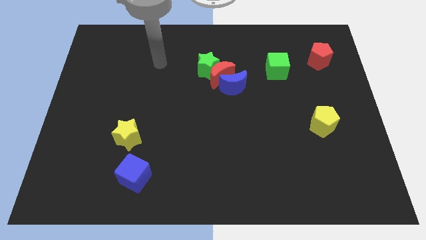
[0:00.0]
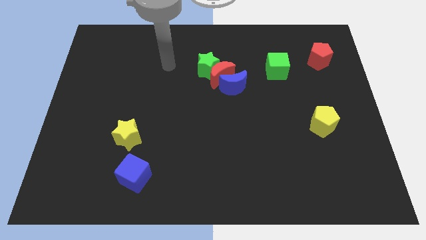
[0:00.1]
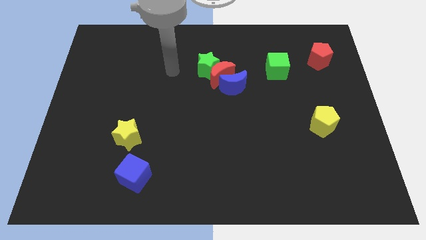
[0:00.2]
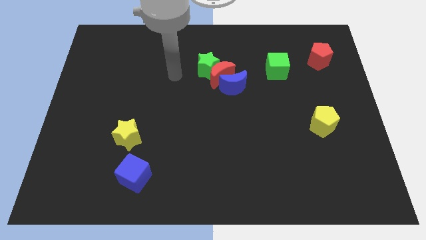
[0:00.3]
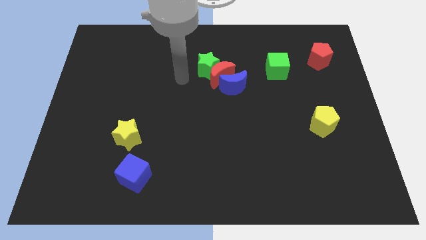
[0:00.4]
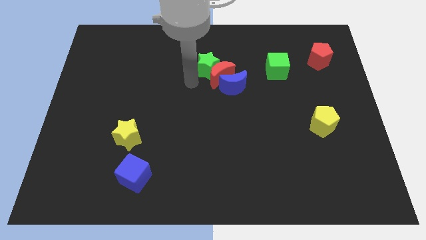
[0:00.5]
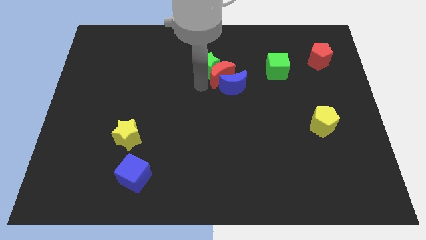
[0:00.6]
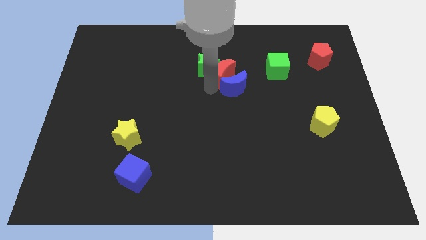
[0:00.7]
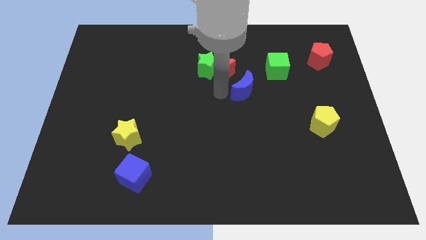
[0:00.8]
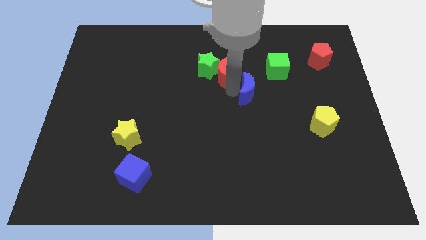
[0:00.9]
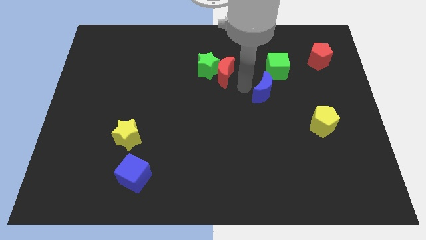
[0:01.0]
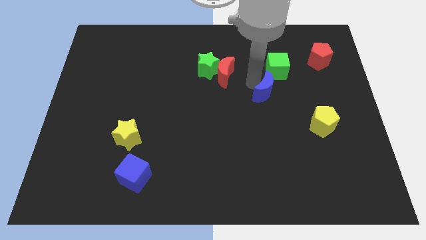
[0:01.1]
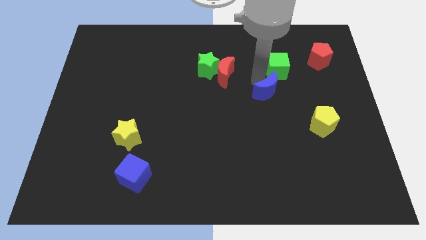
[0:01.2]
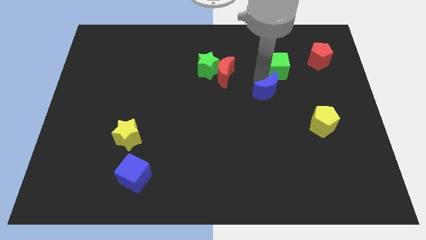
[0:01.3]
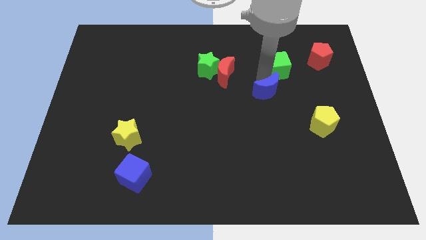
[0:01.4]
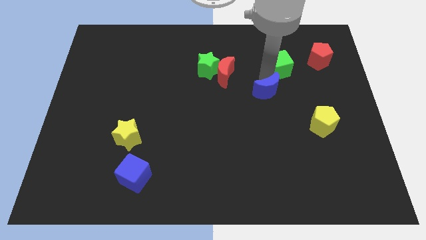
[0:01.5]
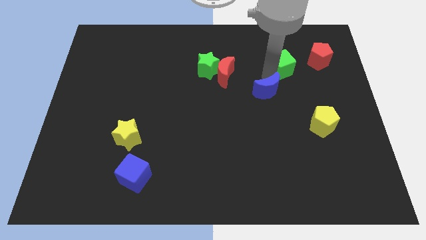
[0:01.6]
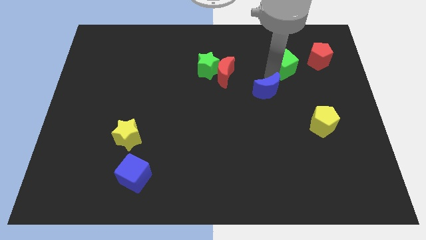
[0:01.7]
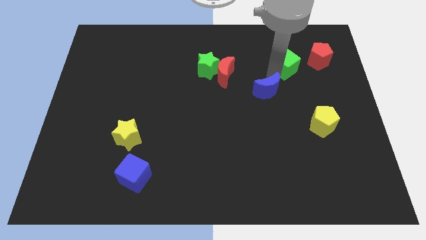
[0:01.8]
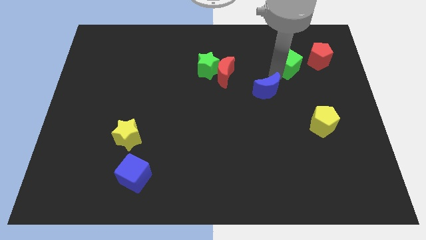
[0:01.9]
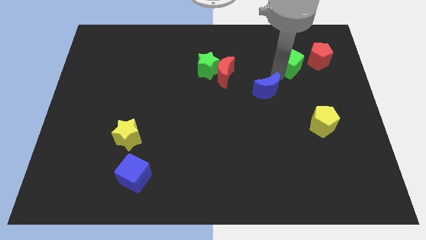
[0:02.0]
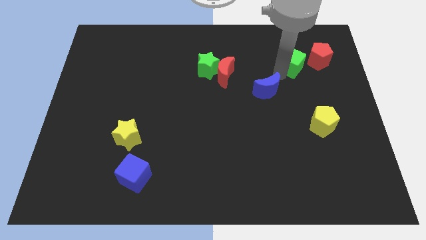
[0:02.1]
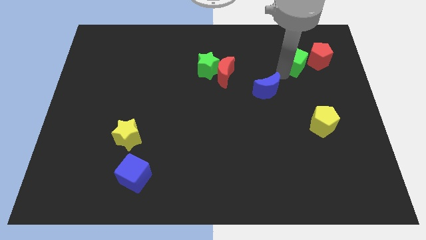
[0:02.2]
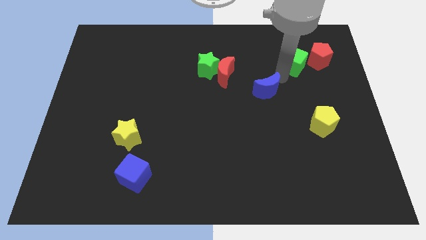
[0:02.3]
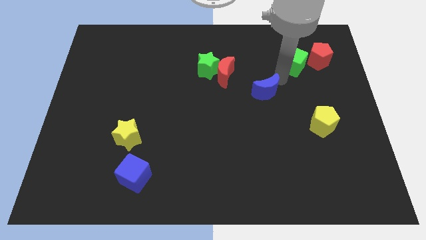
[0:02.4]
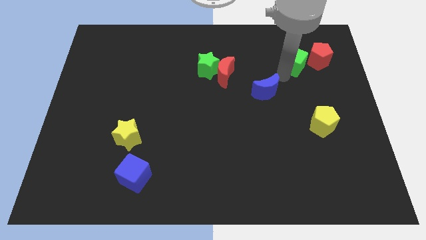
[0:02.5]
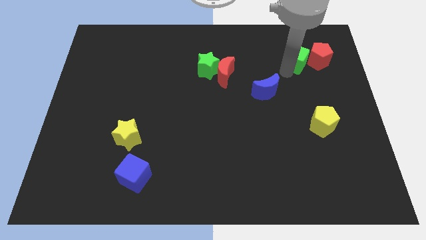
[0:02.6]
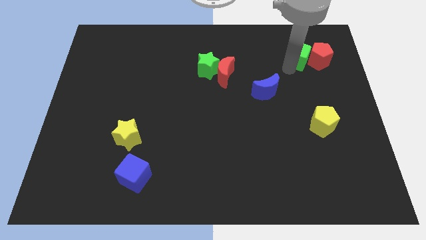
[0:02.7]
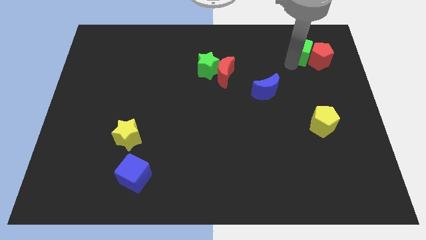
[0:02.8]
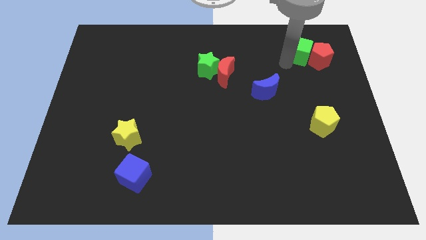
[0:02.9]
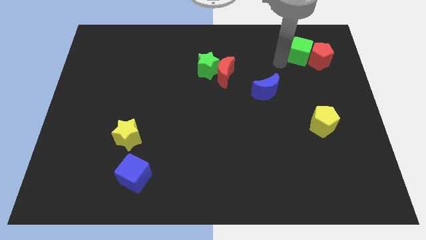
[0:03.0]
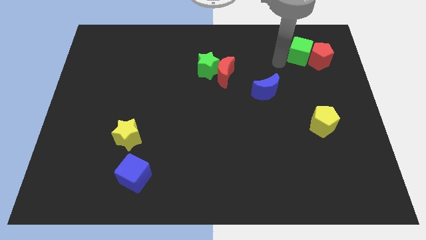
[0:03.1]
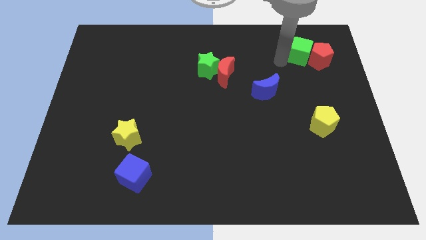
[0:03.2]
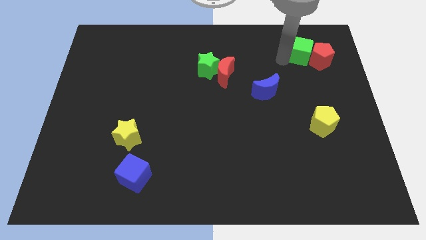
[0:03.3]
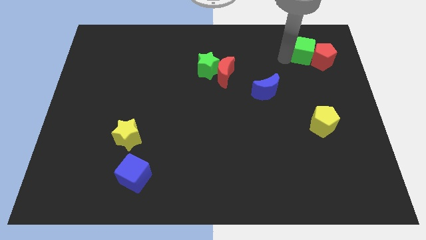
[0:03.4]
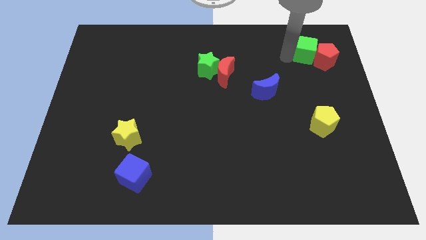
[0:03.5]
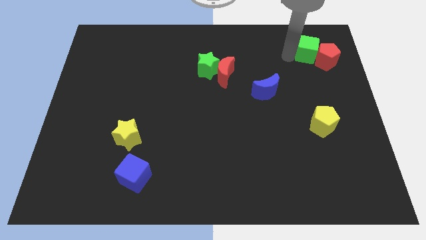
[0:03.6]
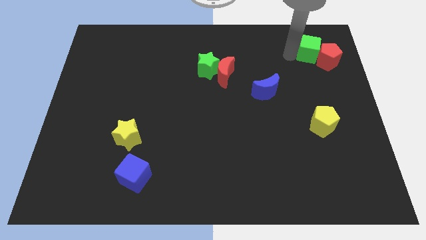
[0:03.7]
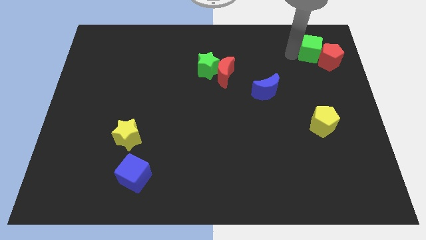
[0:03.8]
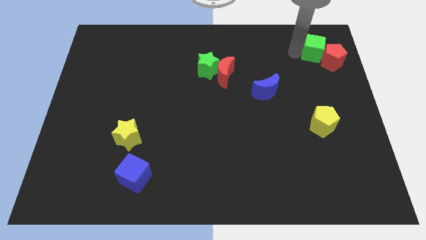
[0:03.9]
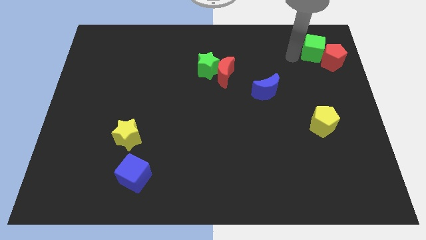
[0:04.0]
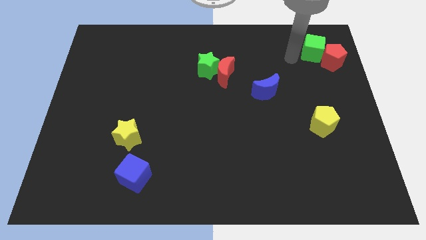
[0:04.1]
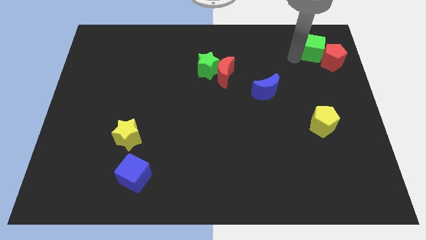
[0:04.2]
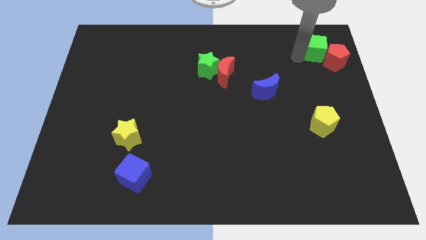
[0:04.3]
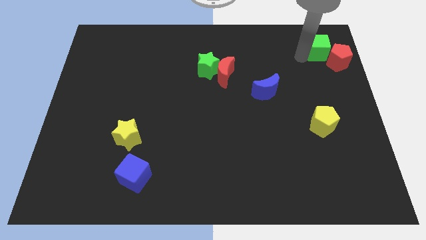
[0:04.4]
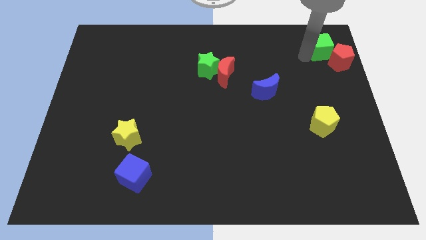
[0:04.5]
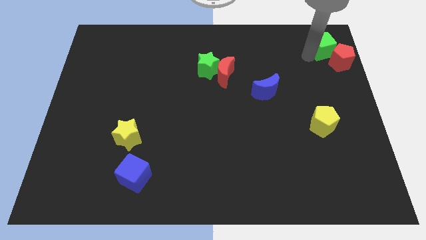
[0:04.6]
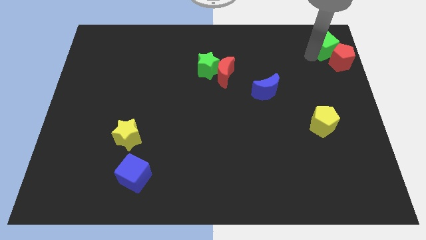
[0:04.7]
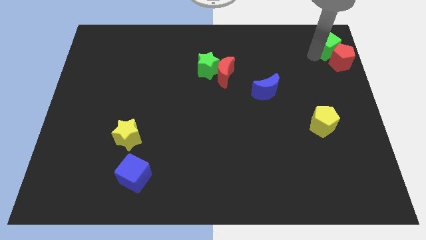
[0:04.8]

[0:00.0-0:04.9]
put the green cube to the upper right corner

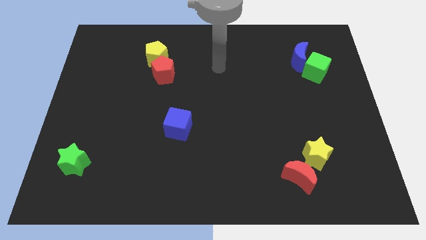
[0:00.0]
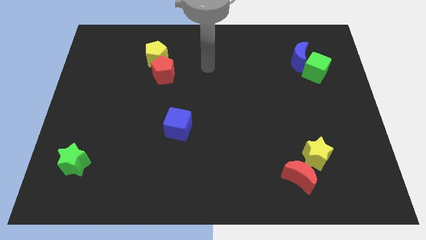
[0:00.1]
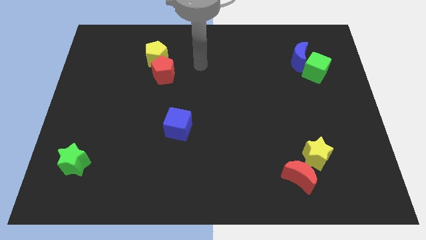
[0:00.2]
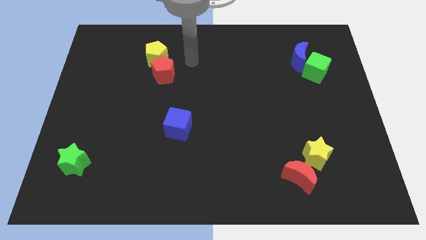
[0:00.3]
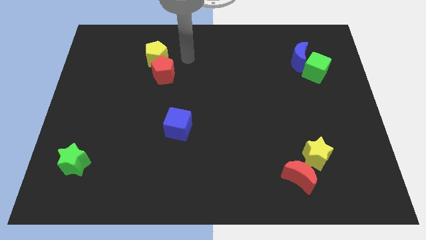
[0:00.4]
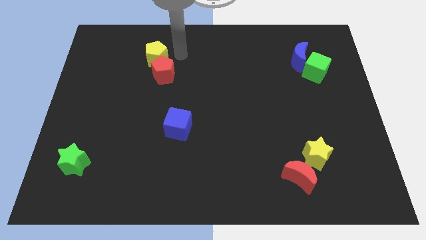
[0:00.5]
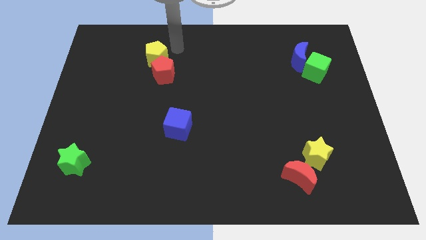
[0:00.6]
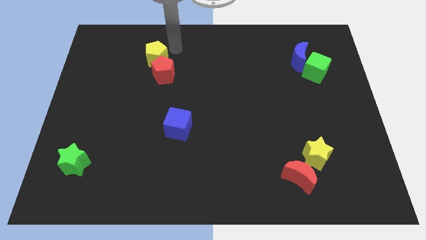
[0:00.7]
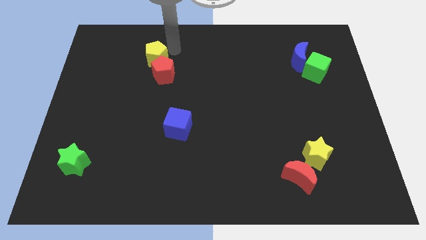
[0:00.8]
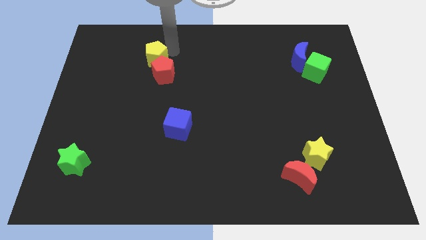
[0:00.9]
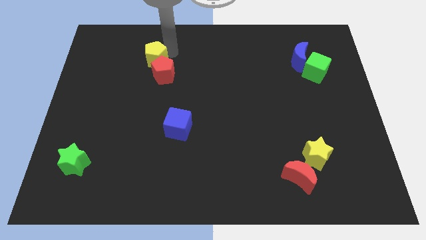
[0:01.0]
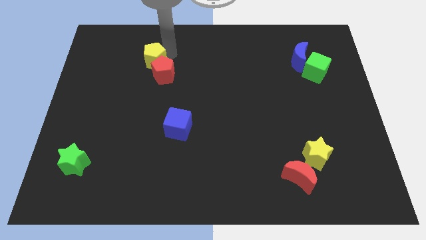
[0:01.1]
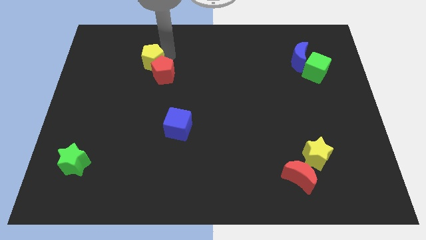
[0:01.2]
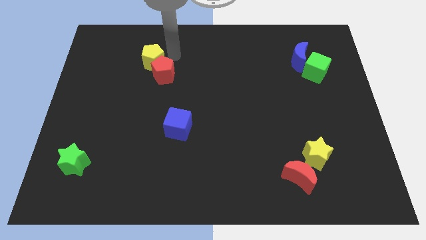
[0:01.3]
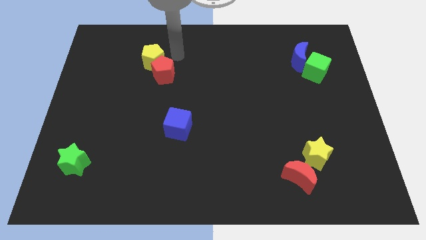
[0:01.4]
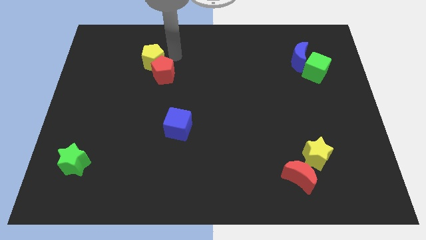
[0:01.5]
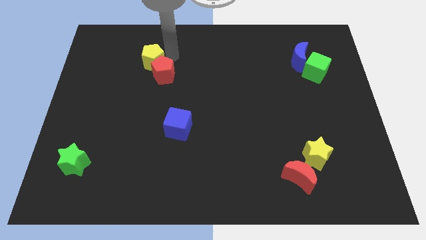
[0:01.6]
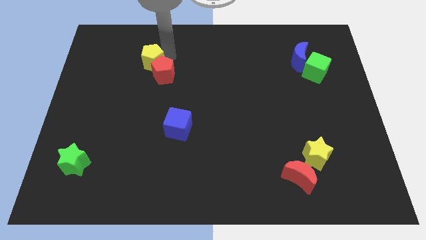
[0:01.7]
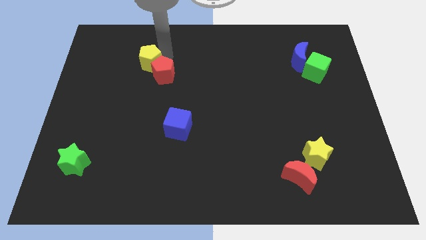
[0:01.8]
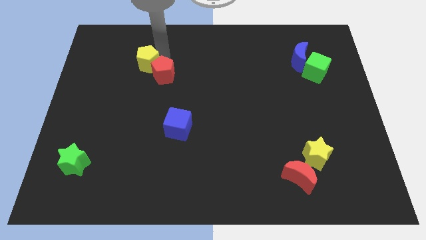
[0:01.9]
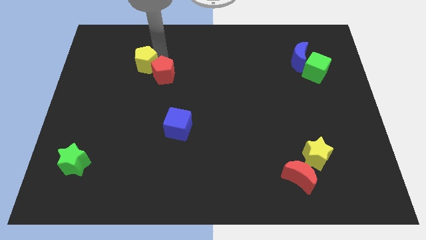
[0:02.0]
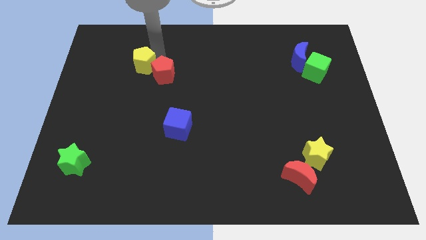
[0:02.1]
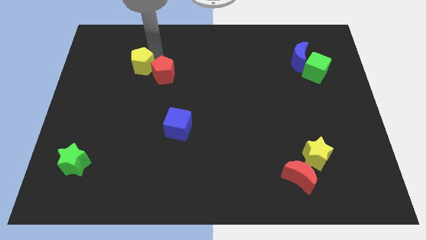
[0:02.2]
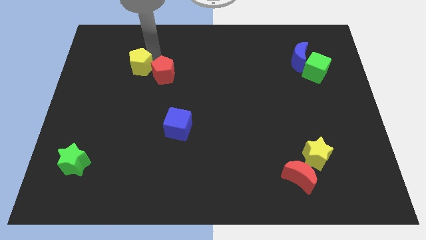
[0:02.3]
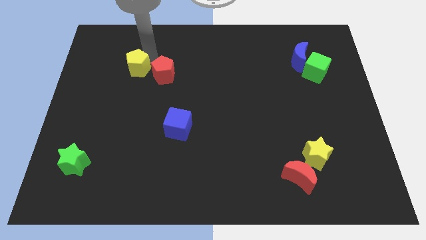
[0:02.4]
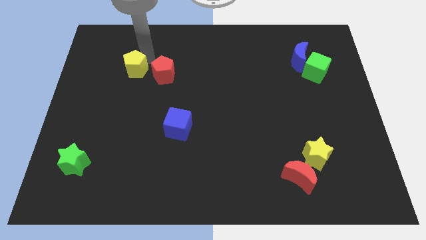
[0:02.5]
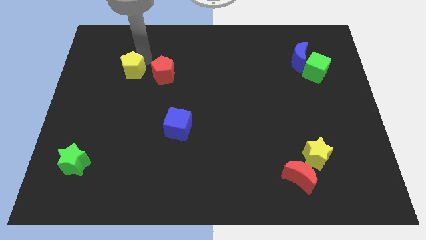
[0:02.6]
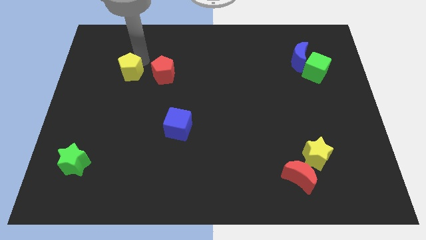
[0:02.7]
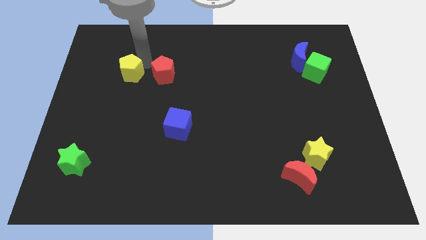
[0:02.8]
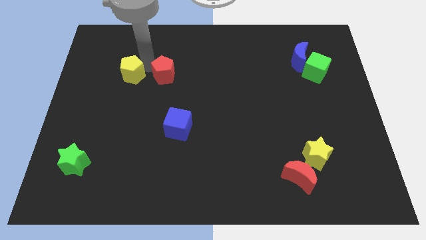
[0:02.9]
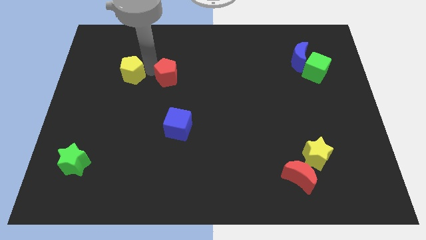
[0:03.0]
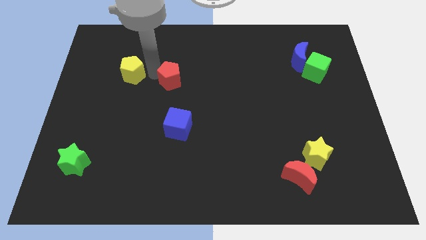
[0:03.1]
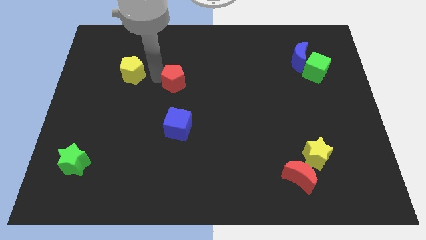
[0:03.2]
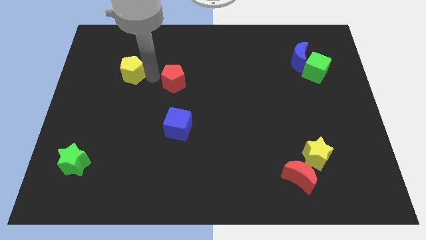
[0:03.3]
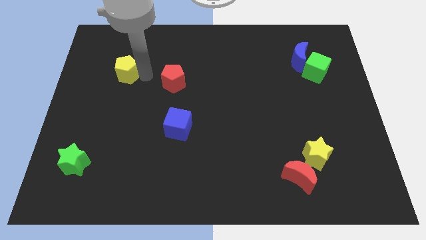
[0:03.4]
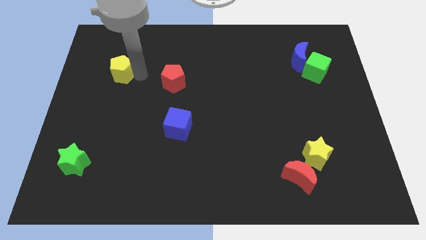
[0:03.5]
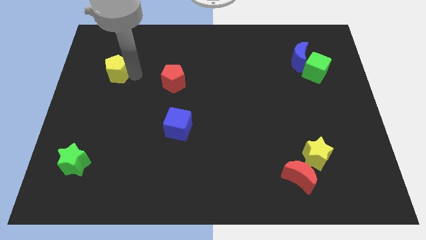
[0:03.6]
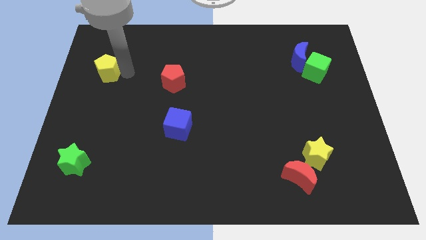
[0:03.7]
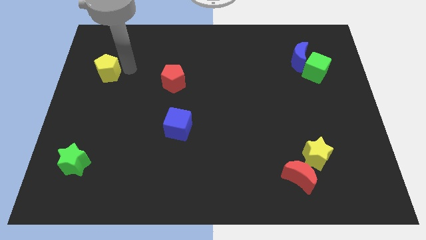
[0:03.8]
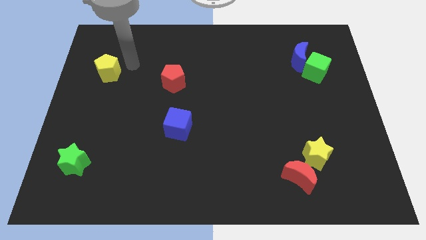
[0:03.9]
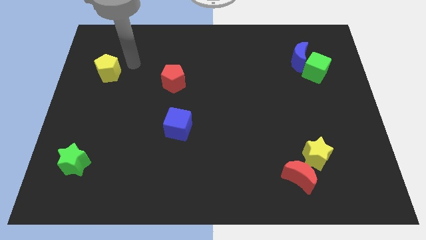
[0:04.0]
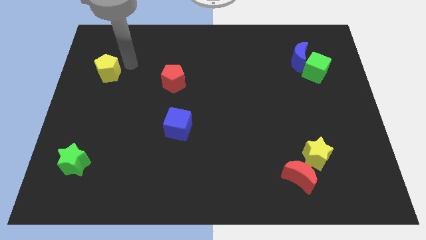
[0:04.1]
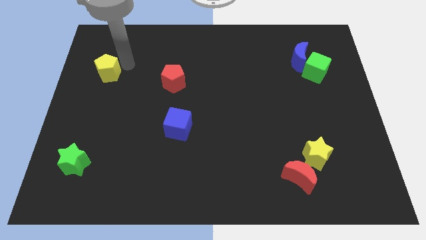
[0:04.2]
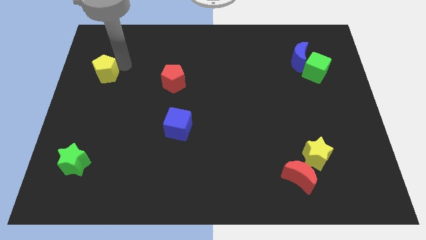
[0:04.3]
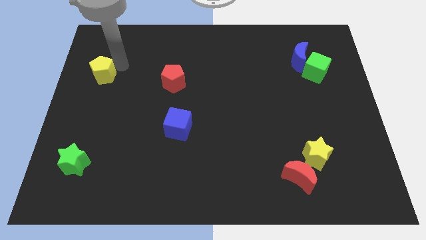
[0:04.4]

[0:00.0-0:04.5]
push the yellow pentagon to the left side
